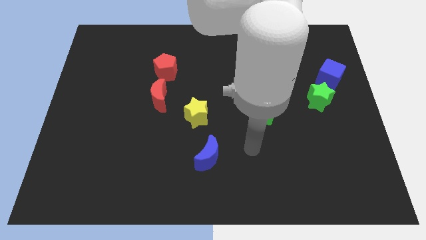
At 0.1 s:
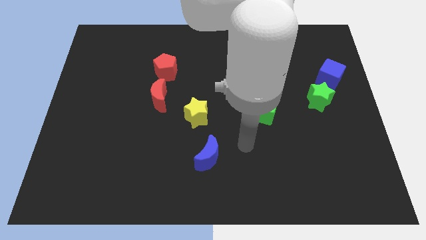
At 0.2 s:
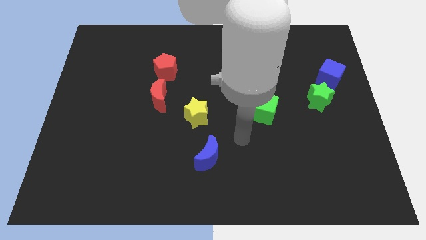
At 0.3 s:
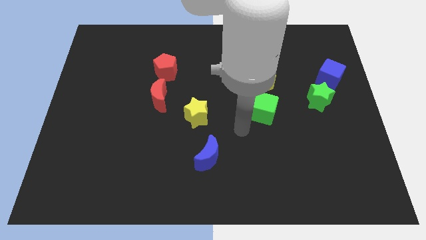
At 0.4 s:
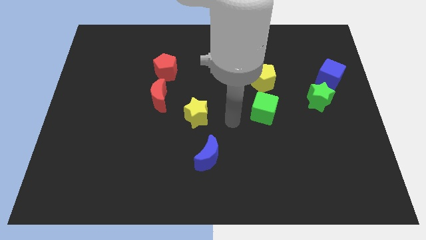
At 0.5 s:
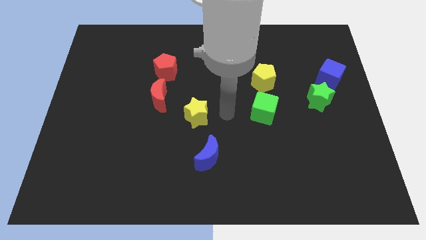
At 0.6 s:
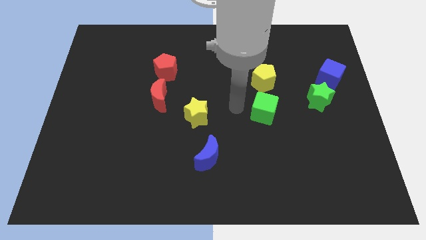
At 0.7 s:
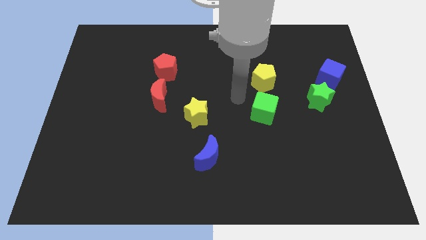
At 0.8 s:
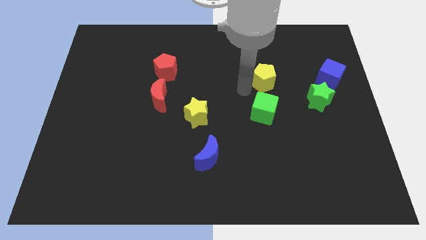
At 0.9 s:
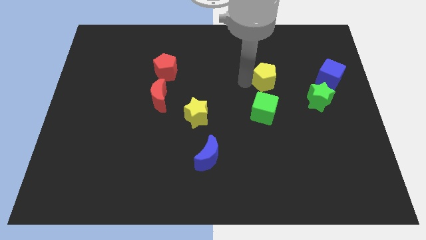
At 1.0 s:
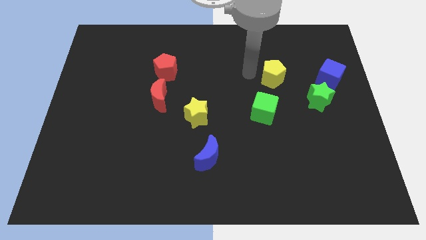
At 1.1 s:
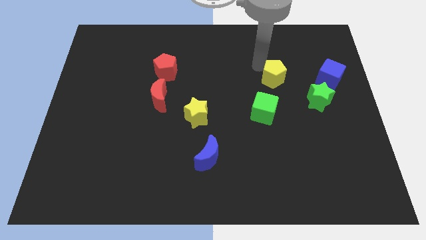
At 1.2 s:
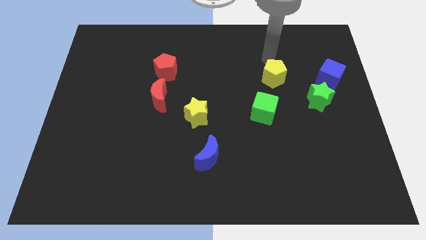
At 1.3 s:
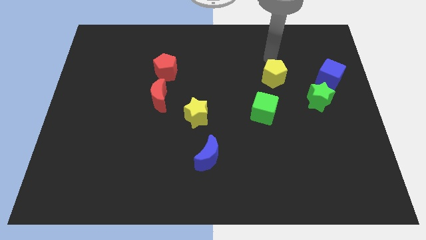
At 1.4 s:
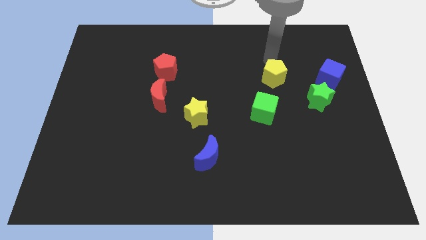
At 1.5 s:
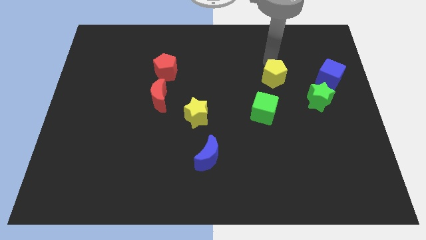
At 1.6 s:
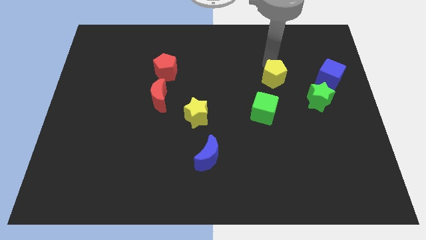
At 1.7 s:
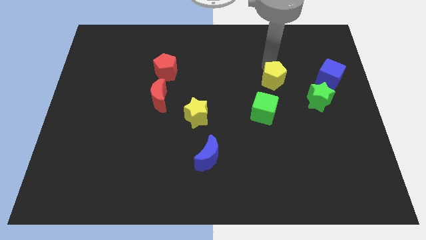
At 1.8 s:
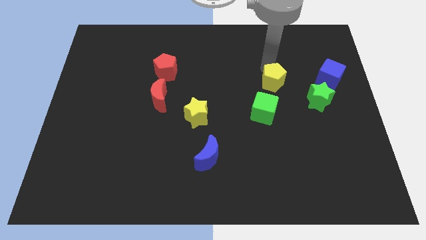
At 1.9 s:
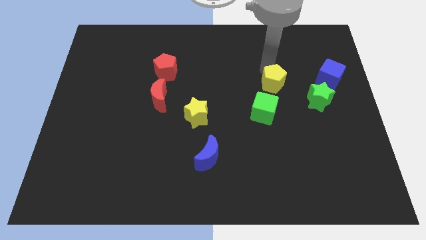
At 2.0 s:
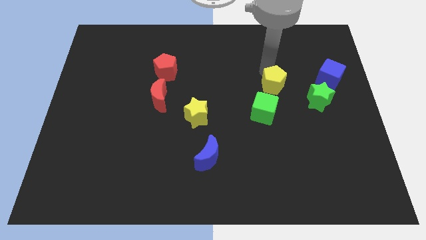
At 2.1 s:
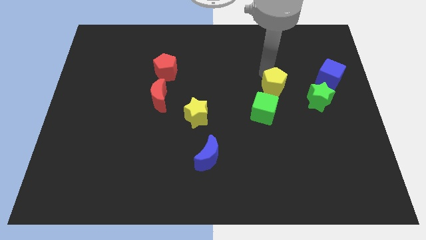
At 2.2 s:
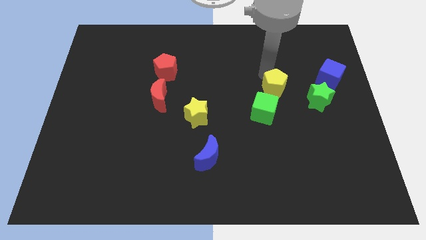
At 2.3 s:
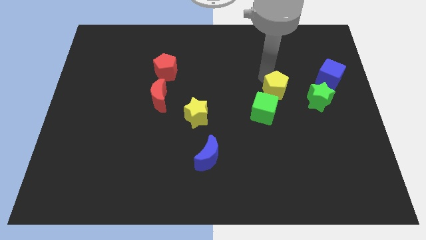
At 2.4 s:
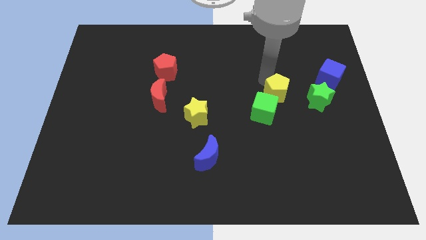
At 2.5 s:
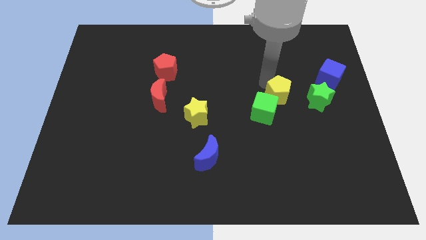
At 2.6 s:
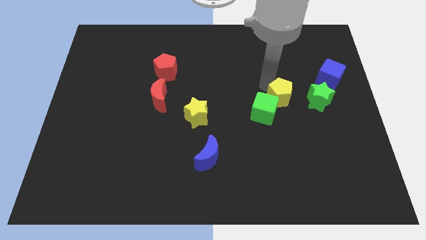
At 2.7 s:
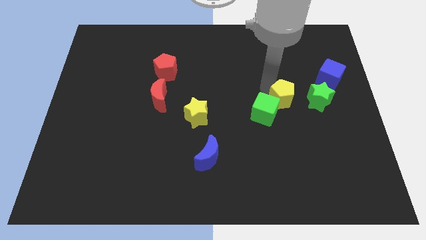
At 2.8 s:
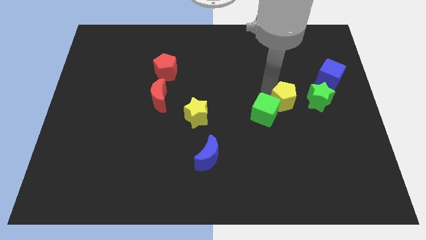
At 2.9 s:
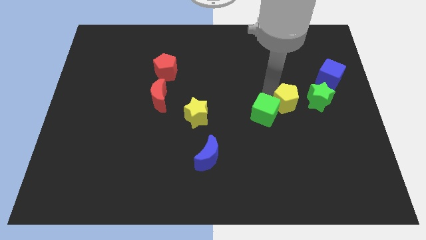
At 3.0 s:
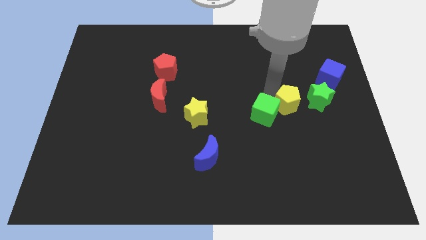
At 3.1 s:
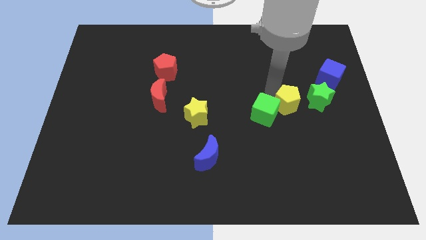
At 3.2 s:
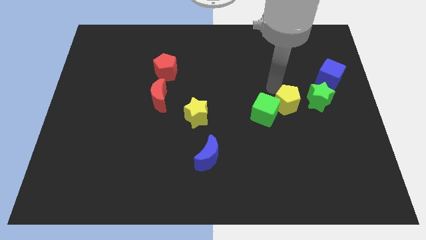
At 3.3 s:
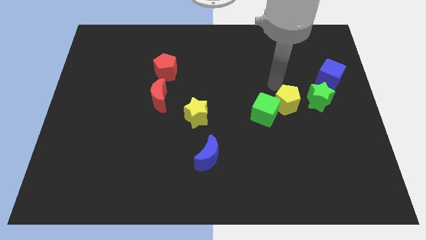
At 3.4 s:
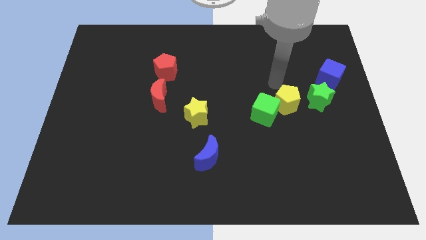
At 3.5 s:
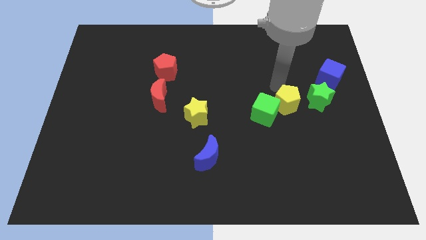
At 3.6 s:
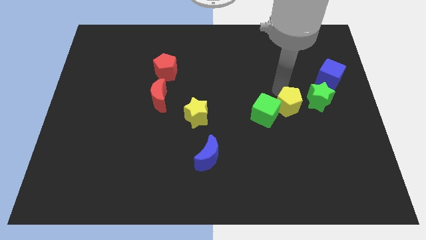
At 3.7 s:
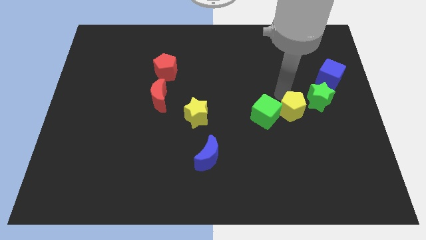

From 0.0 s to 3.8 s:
slide the yellow pentagon a bit down

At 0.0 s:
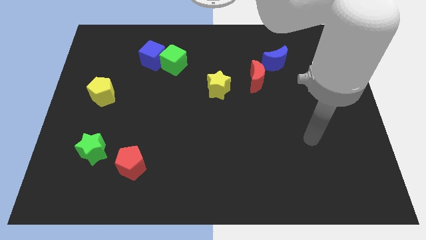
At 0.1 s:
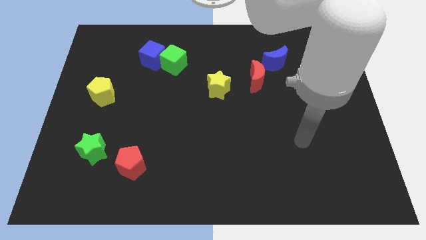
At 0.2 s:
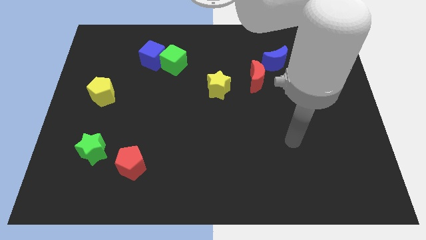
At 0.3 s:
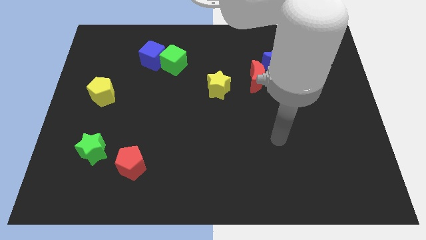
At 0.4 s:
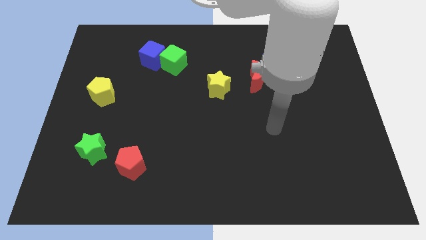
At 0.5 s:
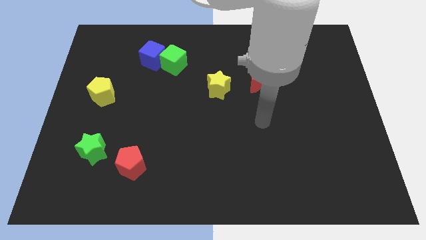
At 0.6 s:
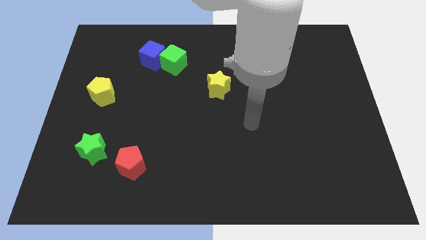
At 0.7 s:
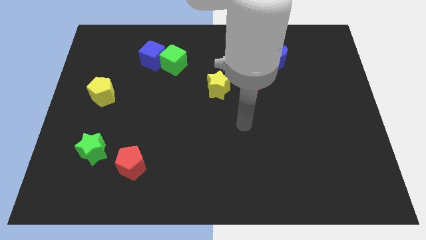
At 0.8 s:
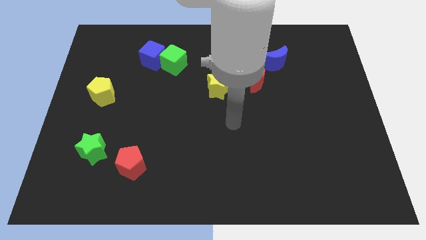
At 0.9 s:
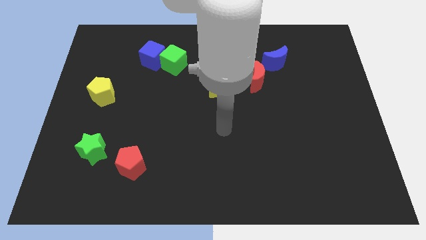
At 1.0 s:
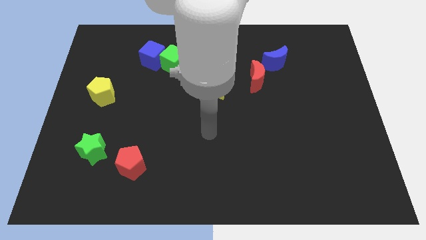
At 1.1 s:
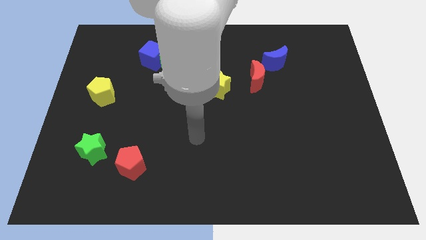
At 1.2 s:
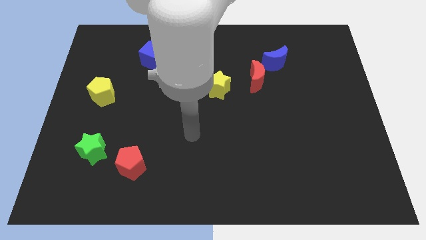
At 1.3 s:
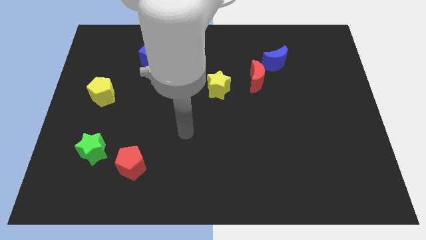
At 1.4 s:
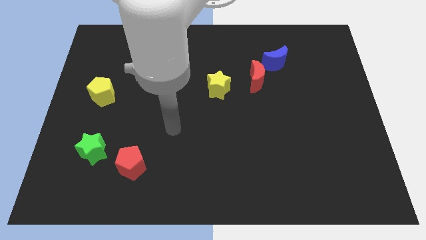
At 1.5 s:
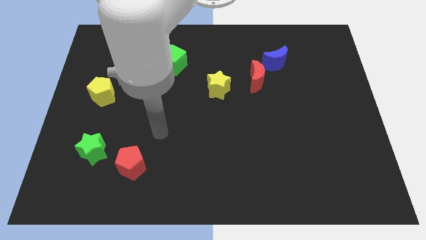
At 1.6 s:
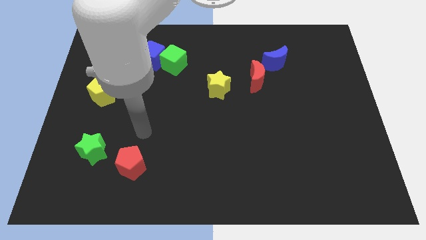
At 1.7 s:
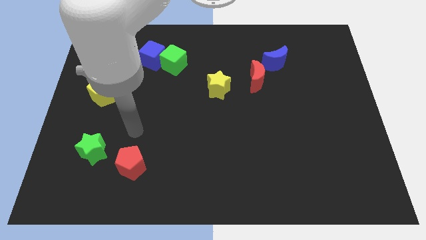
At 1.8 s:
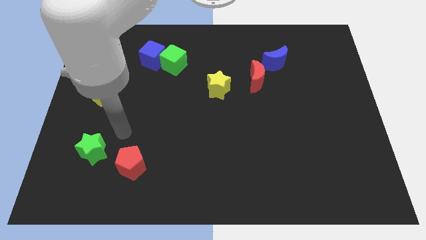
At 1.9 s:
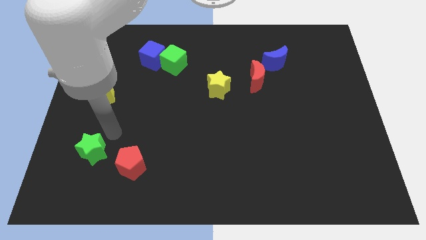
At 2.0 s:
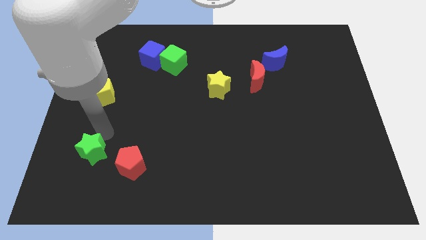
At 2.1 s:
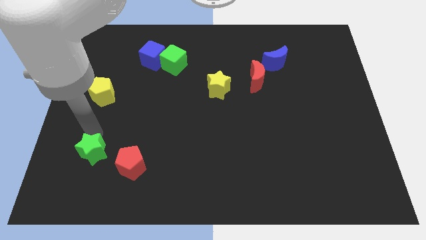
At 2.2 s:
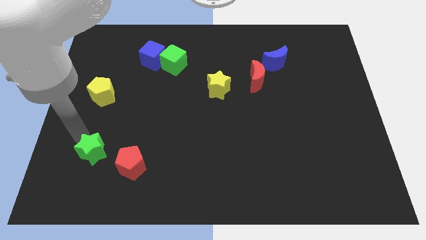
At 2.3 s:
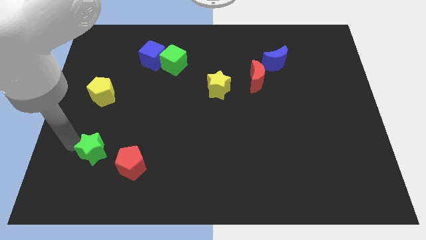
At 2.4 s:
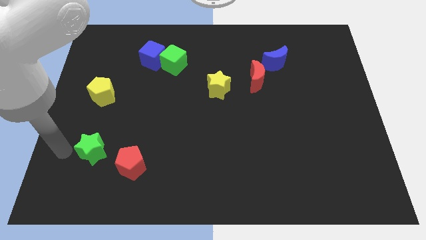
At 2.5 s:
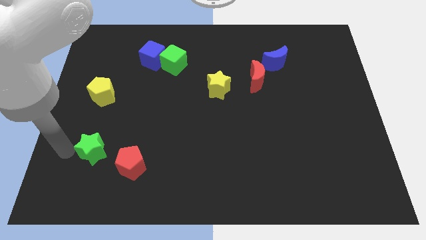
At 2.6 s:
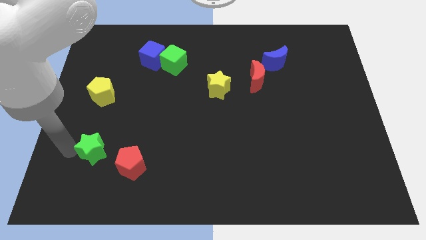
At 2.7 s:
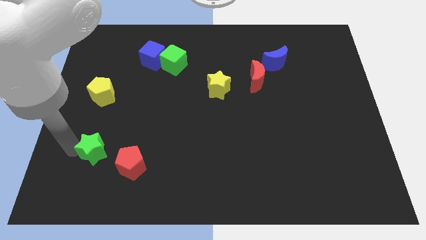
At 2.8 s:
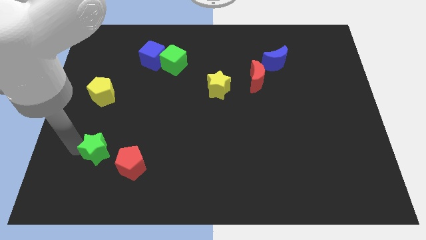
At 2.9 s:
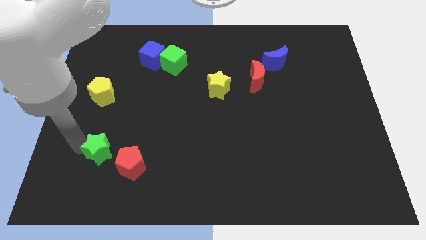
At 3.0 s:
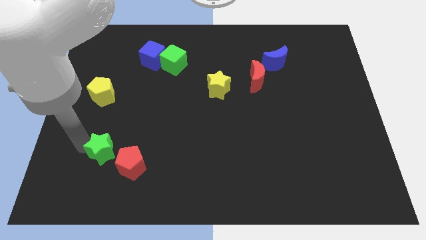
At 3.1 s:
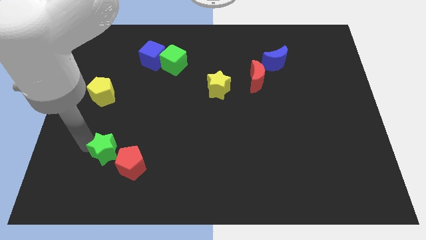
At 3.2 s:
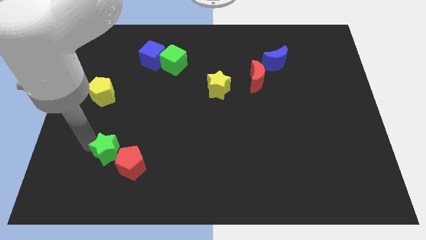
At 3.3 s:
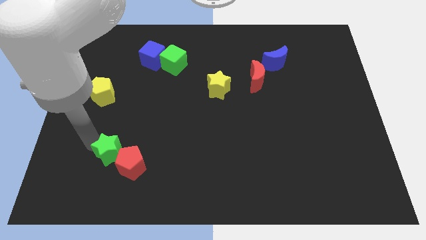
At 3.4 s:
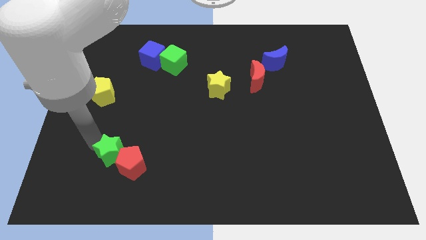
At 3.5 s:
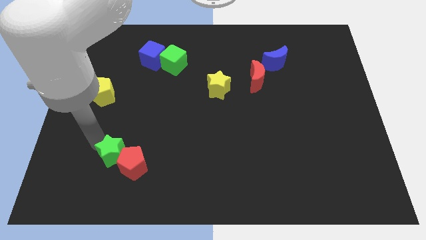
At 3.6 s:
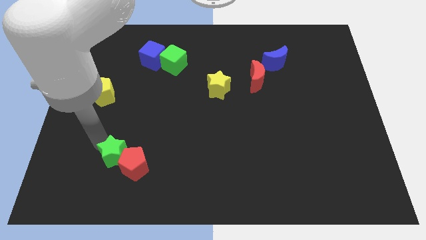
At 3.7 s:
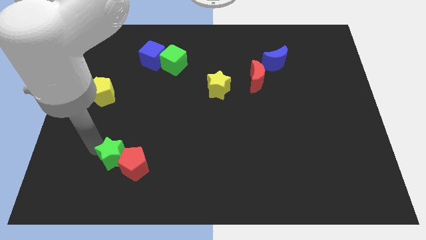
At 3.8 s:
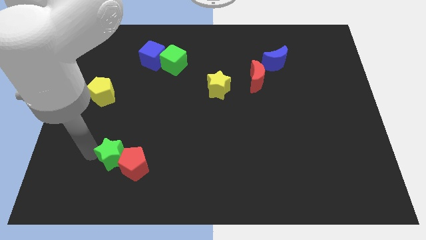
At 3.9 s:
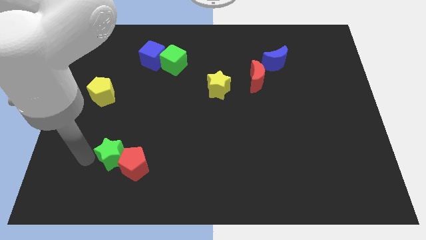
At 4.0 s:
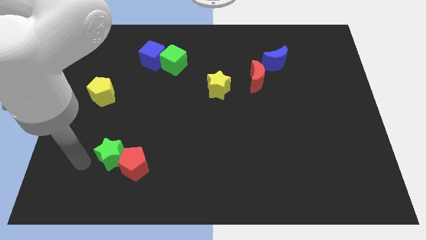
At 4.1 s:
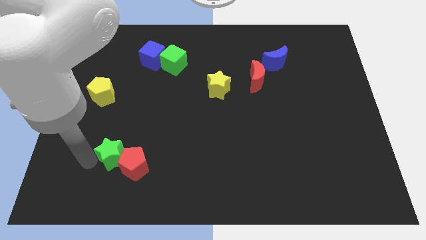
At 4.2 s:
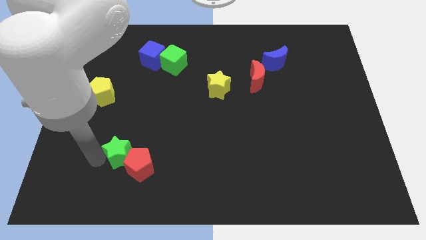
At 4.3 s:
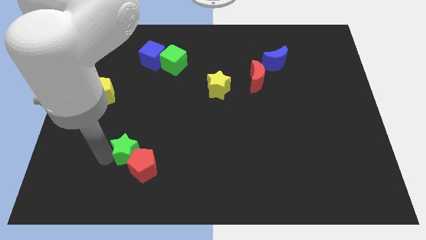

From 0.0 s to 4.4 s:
push the green star slightly right
